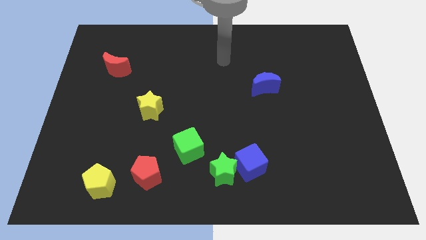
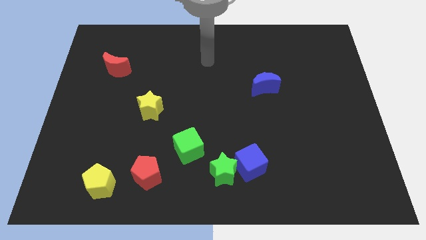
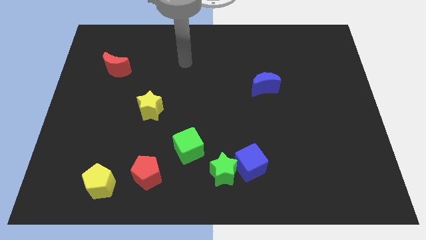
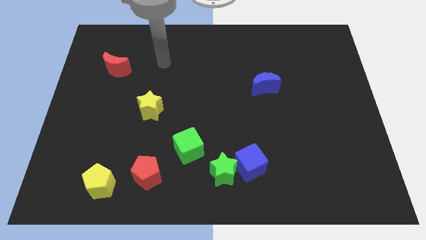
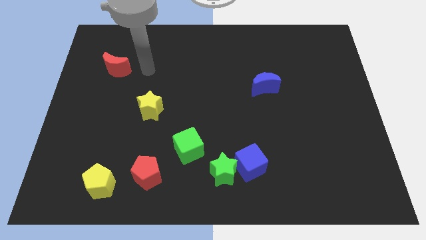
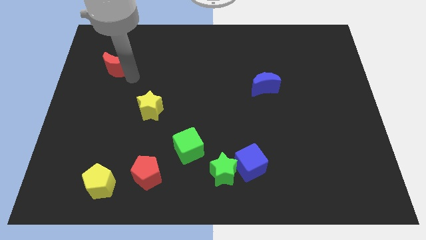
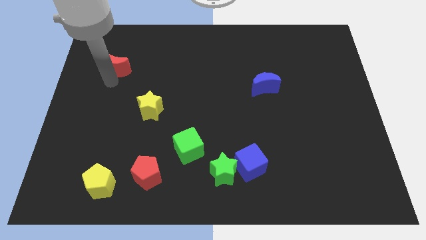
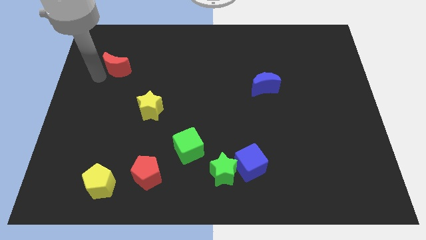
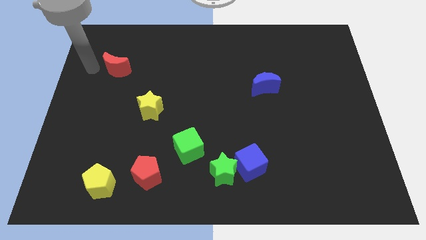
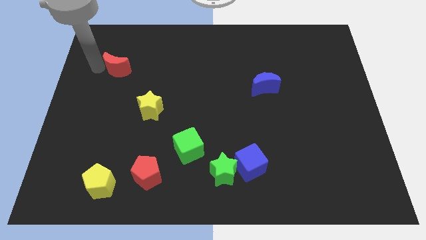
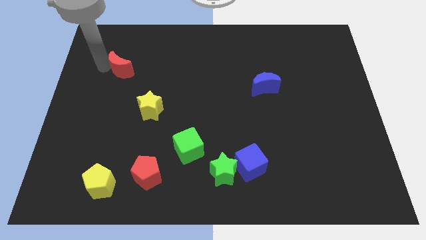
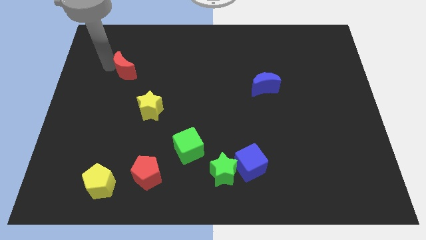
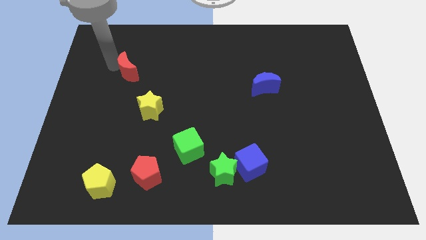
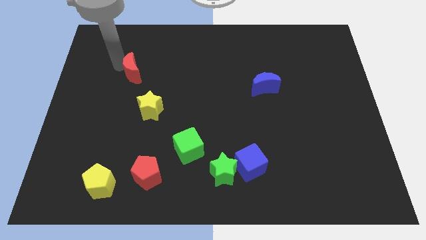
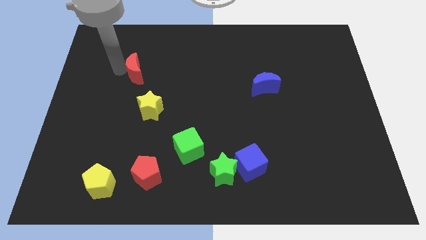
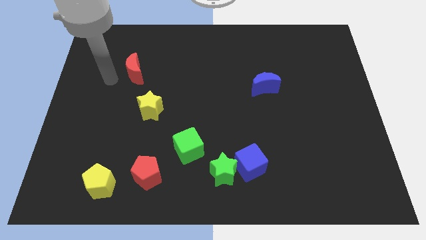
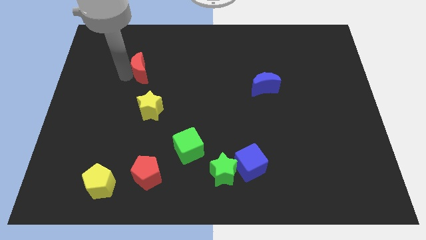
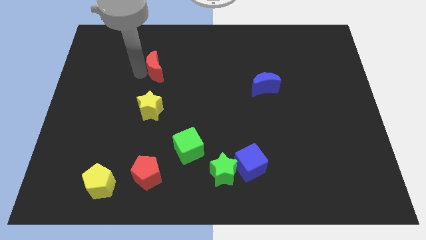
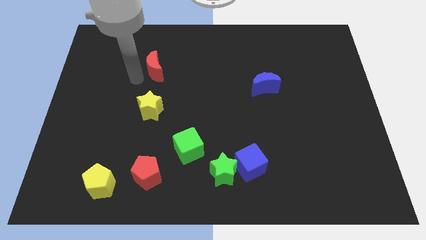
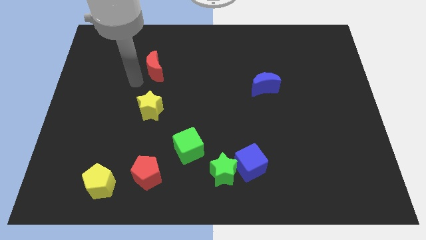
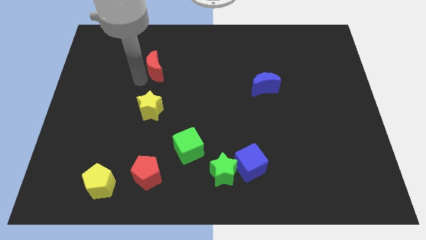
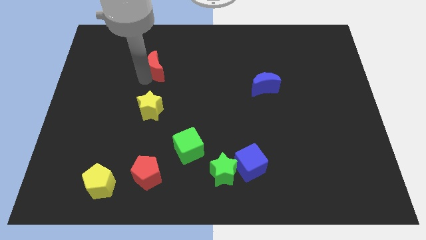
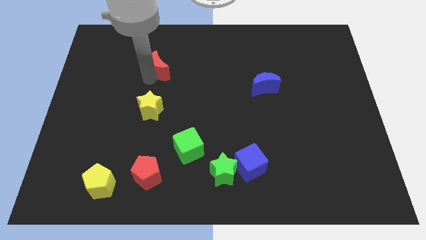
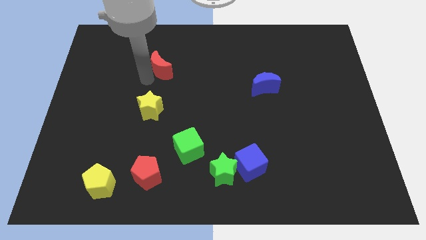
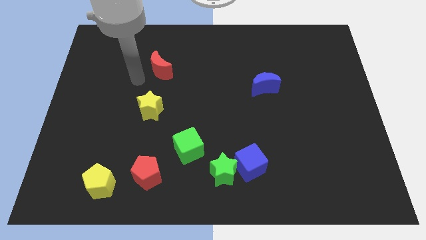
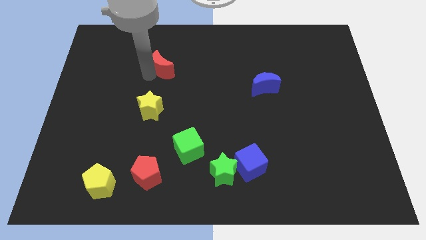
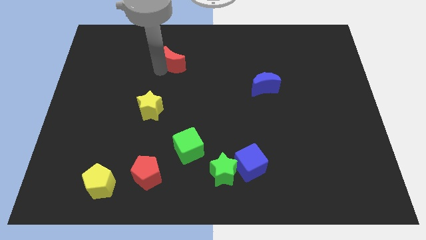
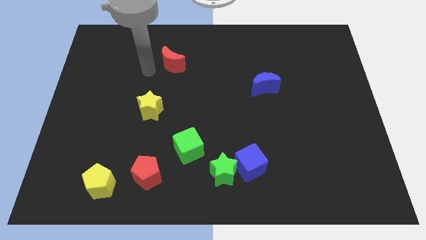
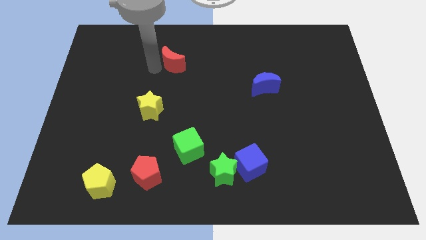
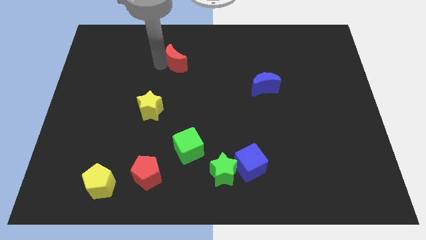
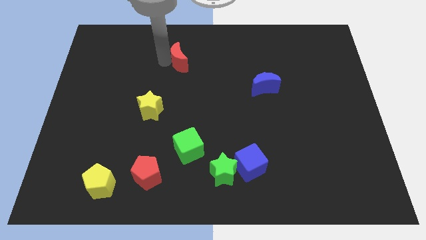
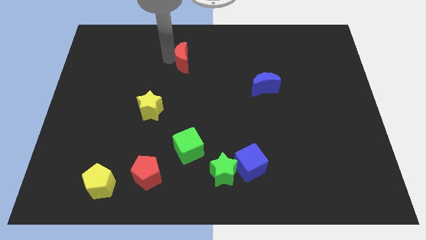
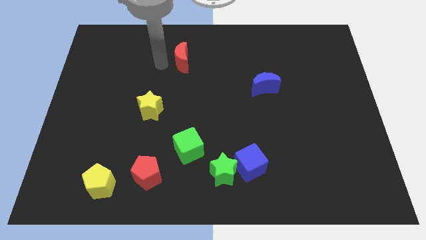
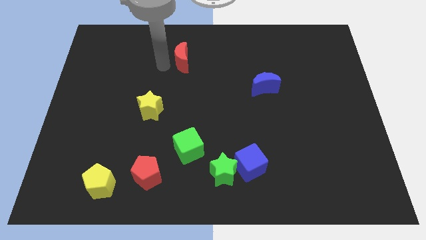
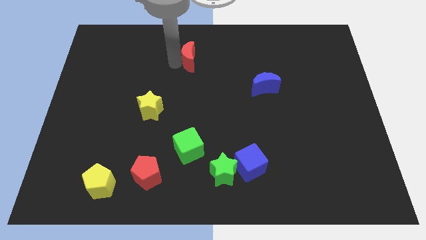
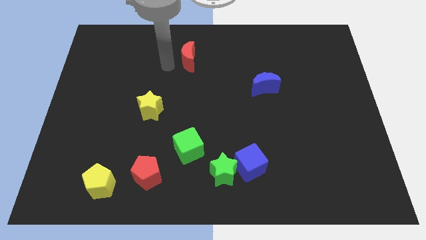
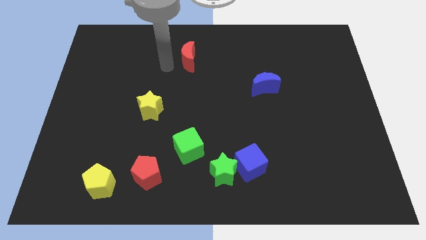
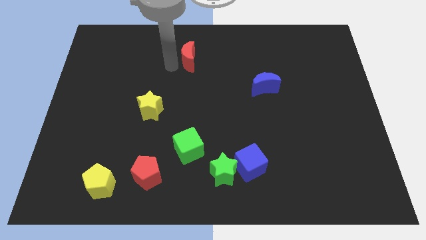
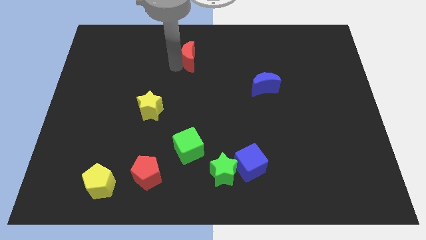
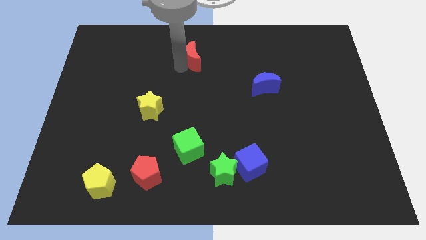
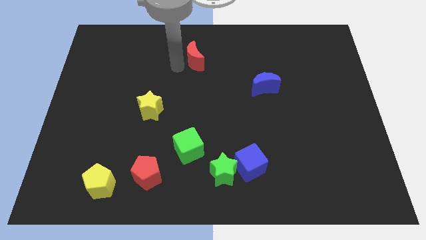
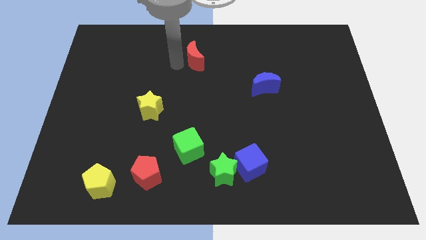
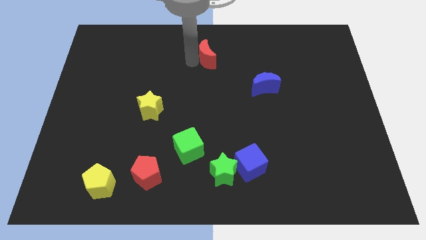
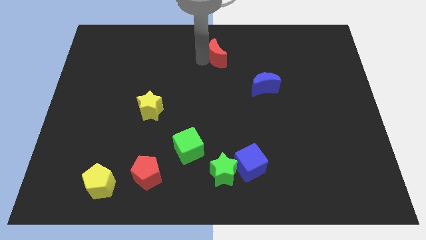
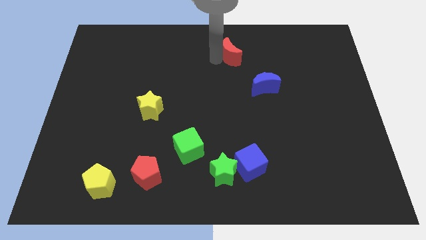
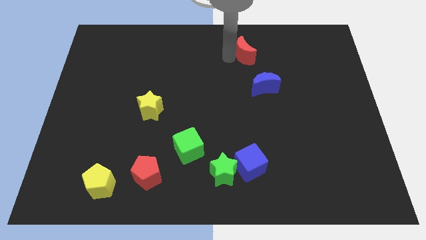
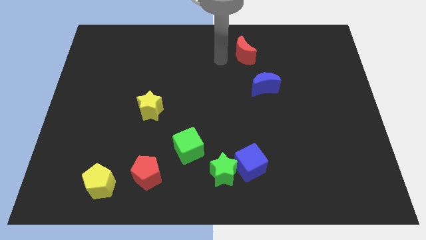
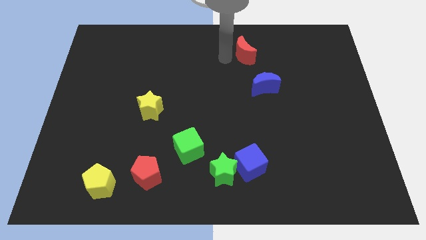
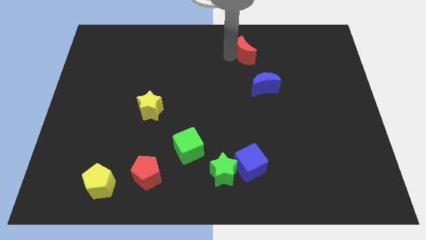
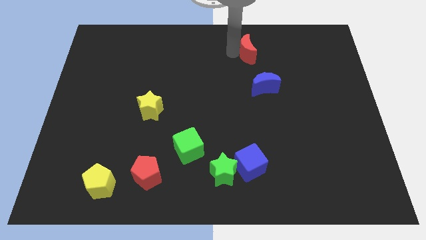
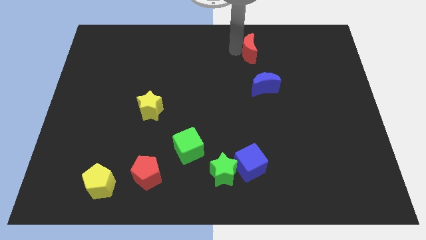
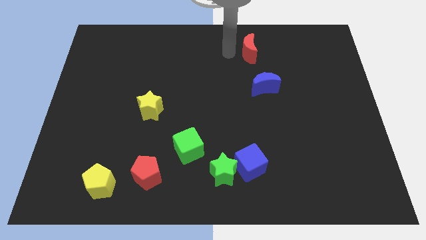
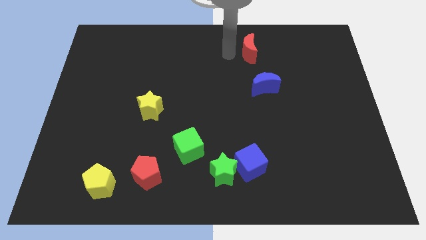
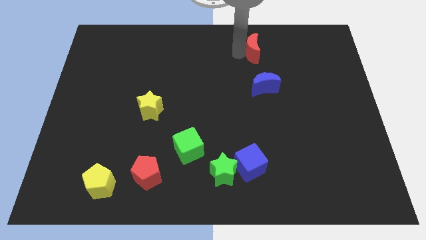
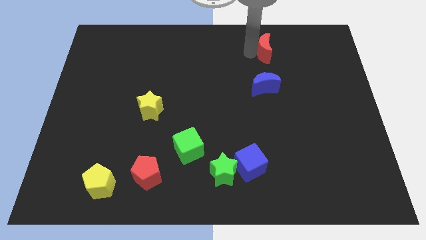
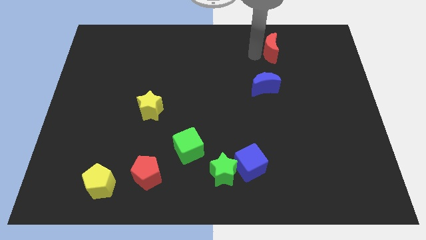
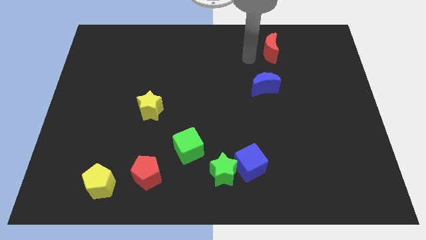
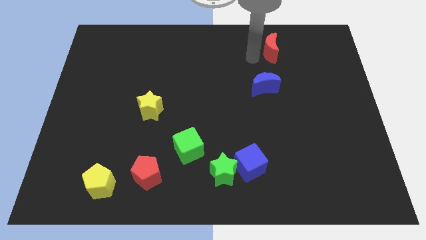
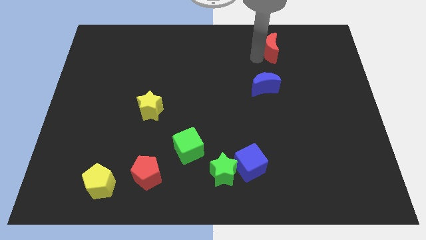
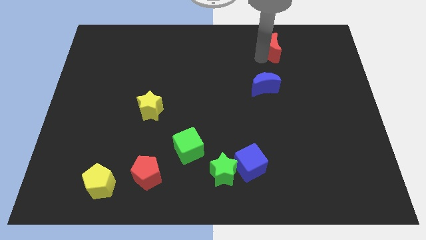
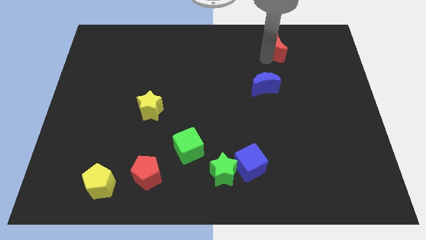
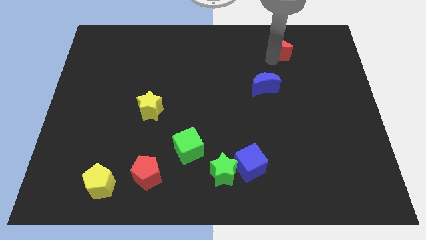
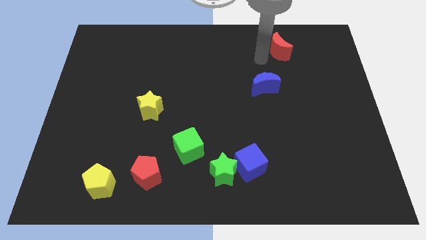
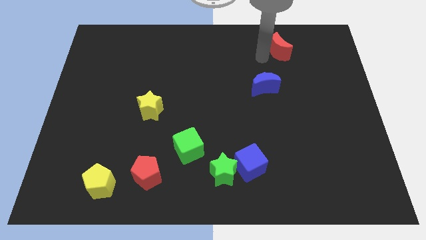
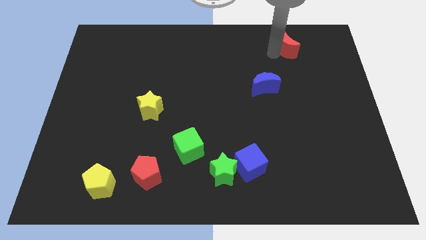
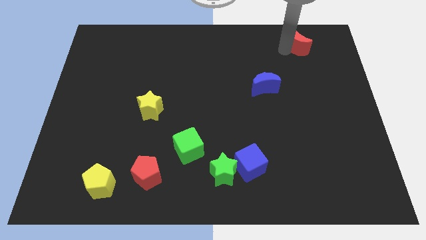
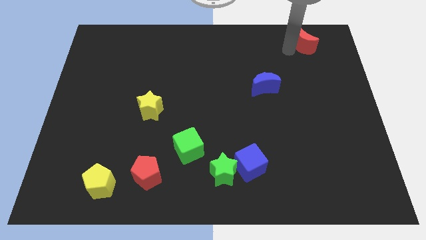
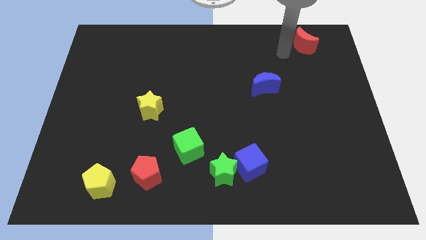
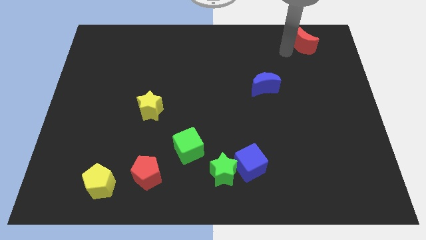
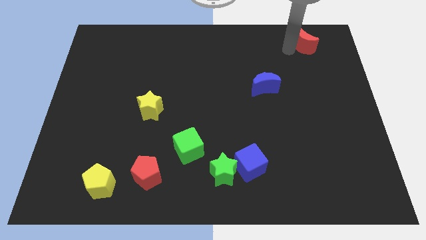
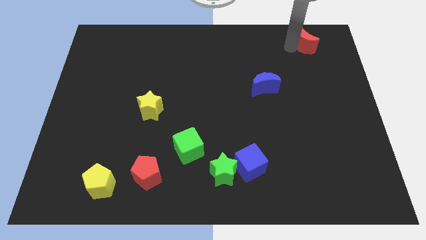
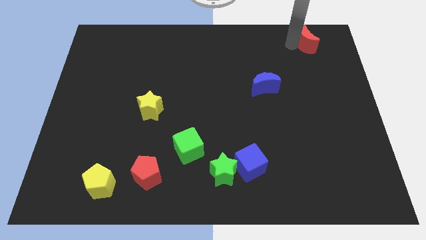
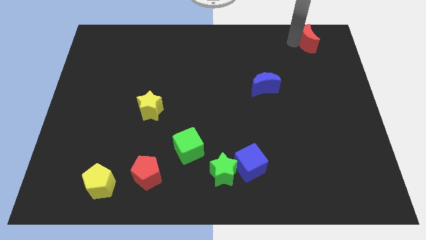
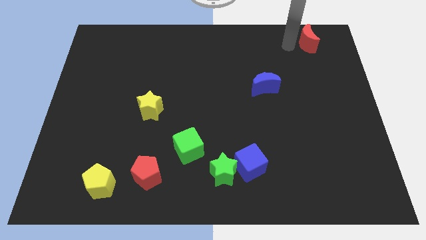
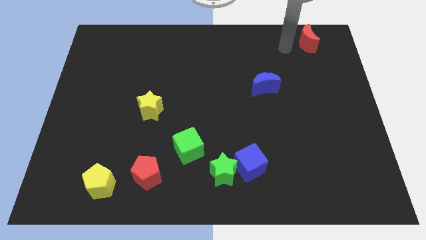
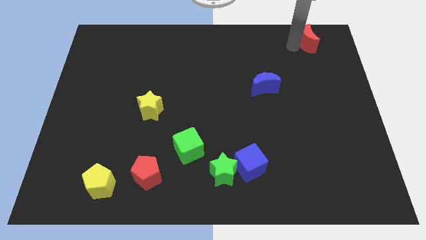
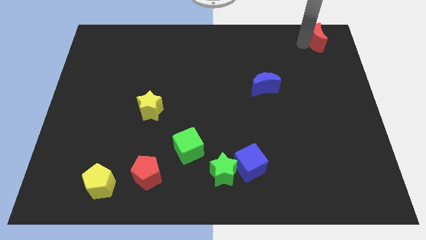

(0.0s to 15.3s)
move the red moon to the top right
